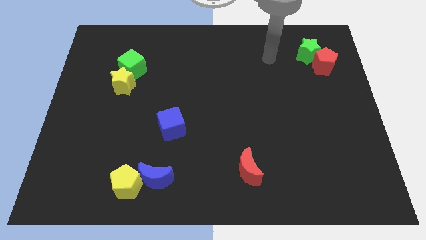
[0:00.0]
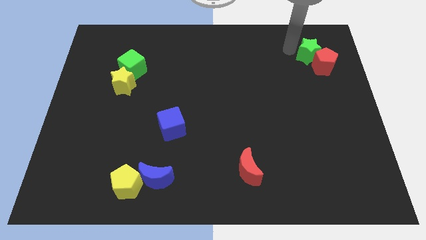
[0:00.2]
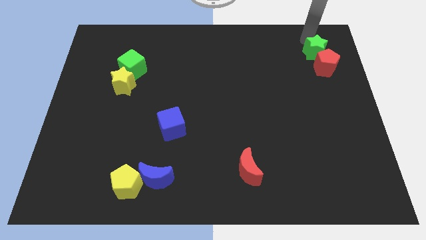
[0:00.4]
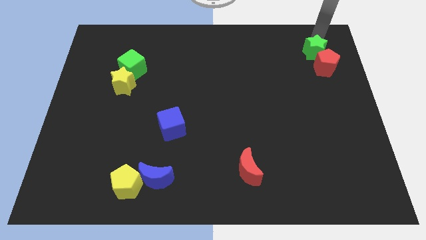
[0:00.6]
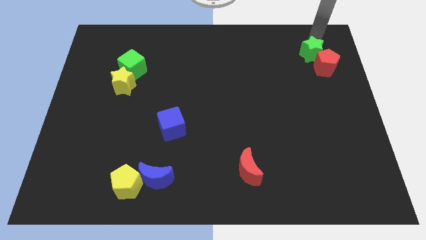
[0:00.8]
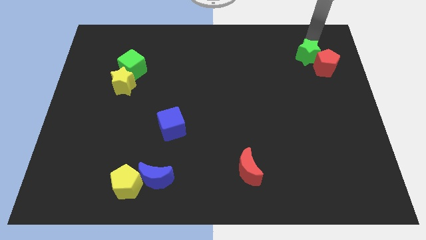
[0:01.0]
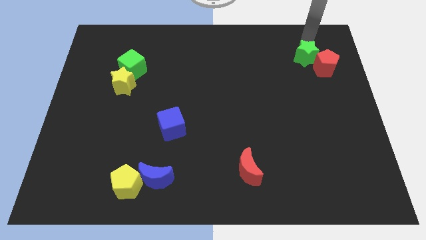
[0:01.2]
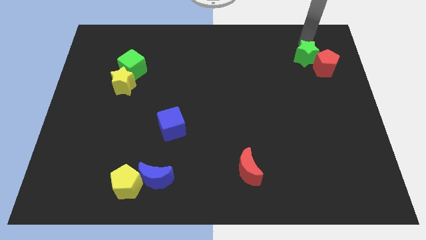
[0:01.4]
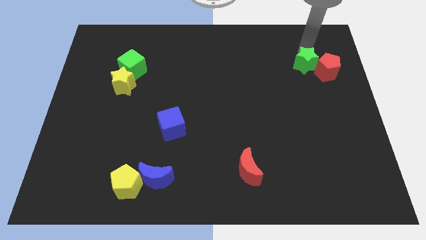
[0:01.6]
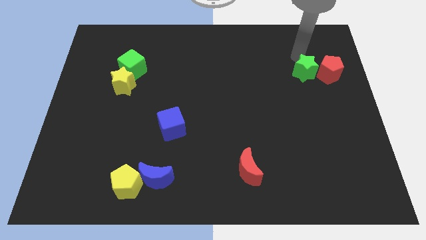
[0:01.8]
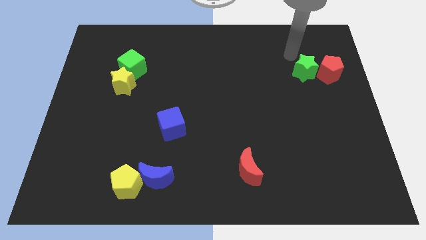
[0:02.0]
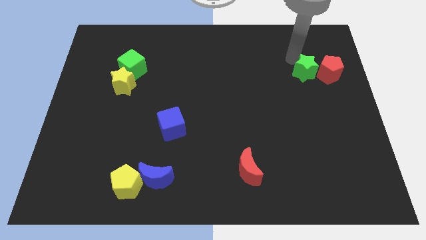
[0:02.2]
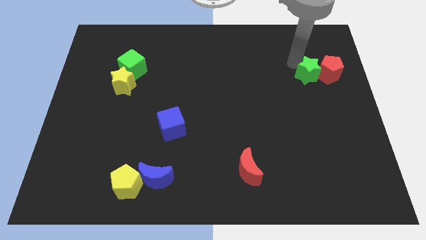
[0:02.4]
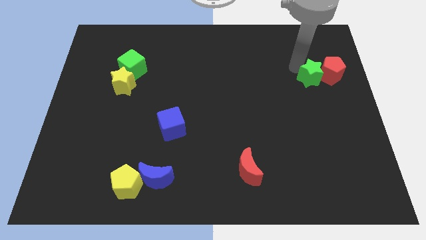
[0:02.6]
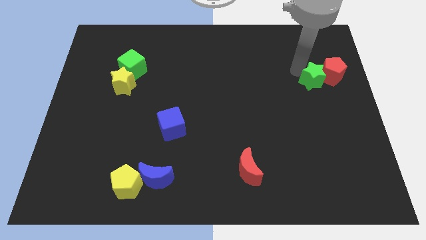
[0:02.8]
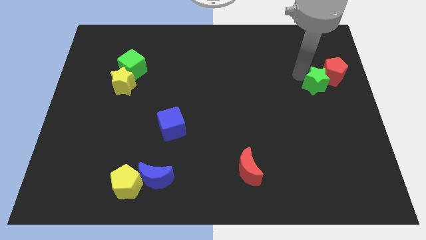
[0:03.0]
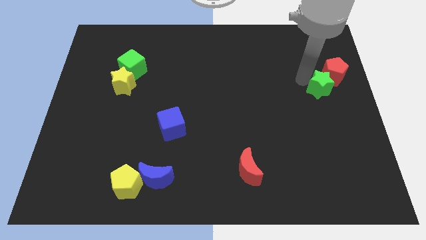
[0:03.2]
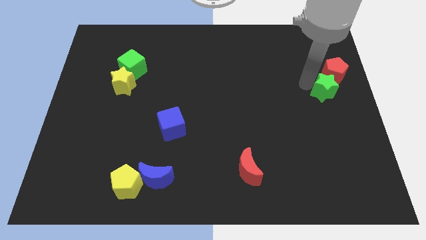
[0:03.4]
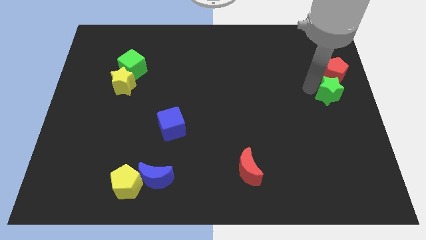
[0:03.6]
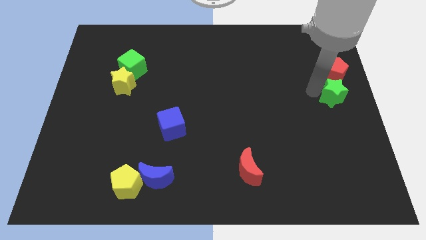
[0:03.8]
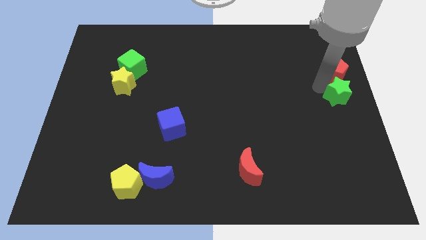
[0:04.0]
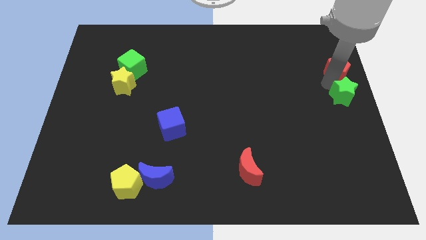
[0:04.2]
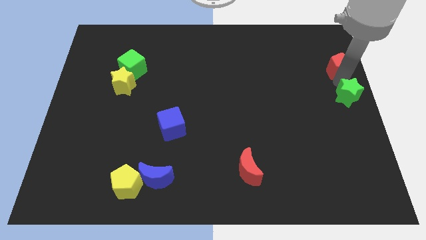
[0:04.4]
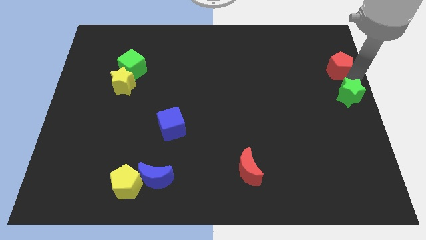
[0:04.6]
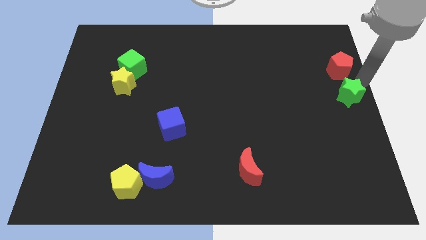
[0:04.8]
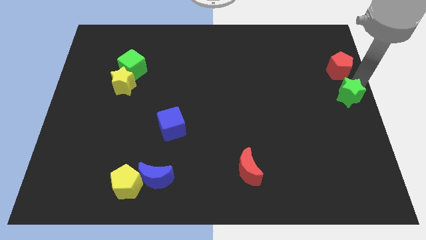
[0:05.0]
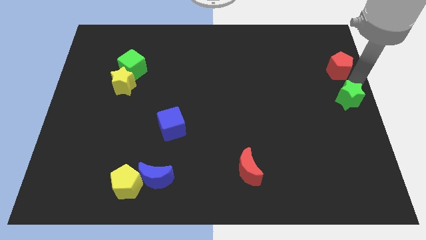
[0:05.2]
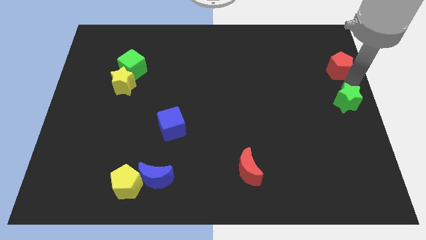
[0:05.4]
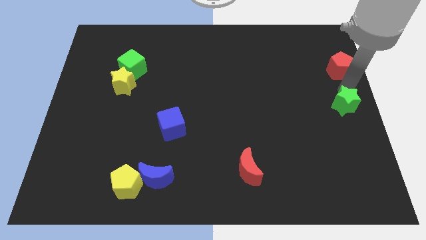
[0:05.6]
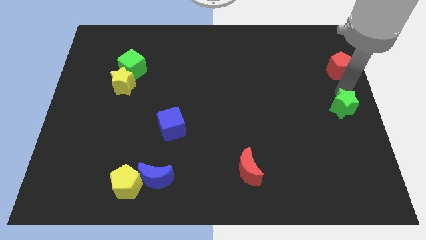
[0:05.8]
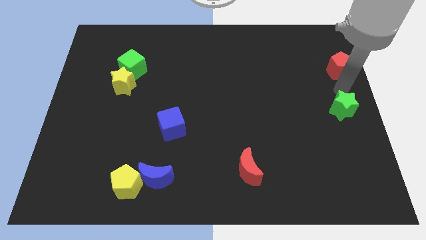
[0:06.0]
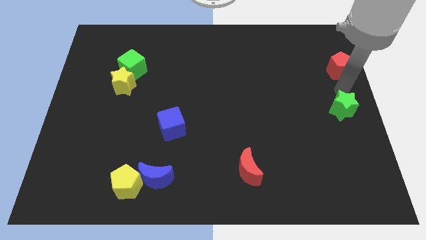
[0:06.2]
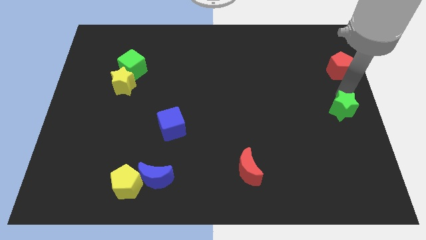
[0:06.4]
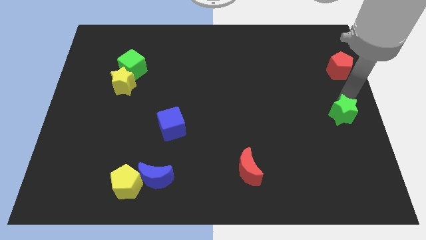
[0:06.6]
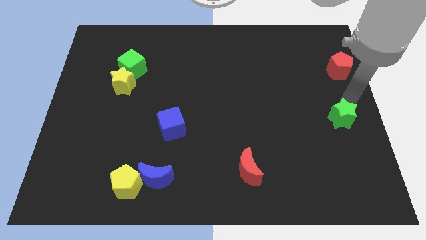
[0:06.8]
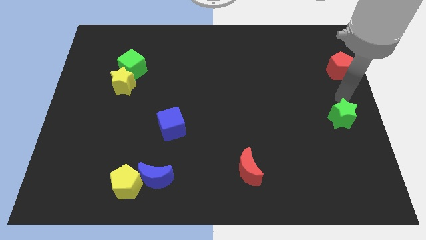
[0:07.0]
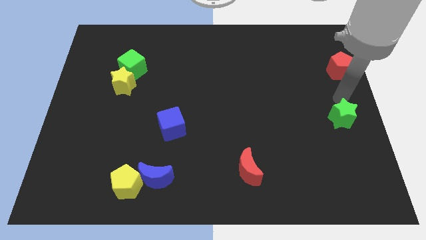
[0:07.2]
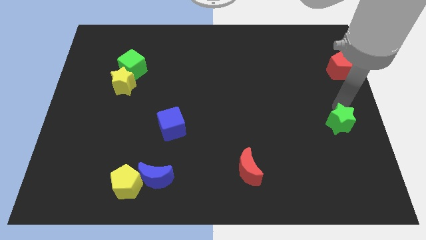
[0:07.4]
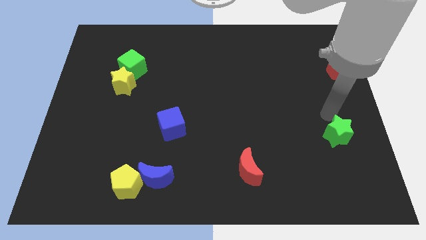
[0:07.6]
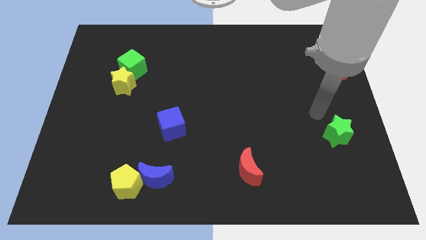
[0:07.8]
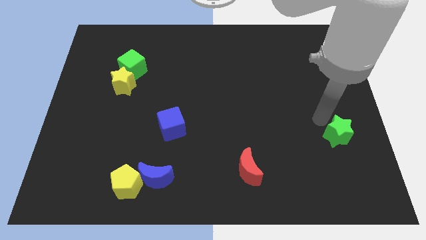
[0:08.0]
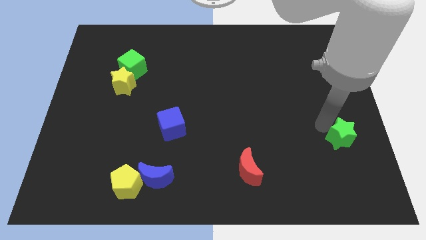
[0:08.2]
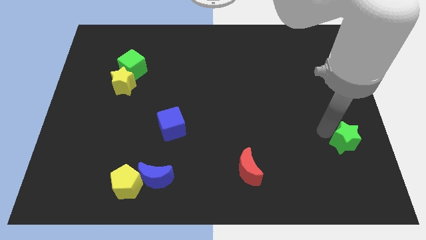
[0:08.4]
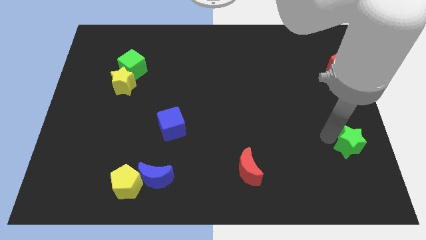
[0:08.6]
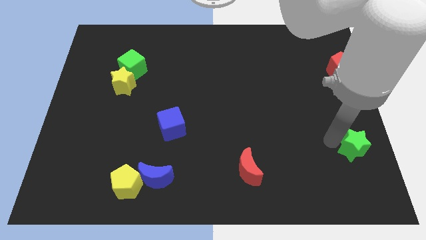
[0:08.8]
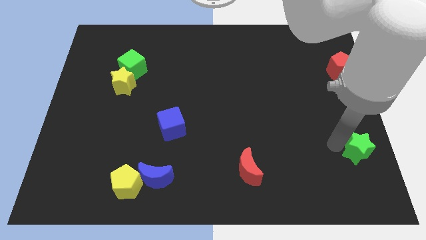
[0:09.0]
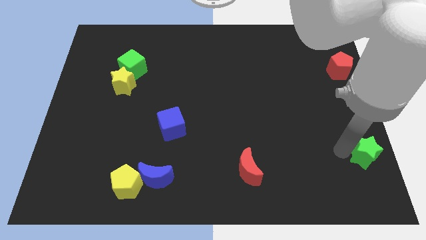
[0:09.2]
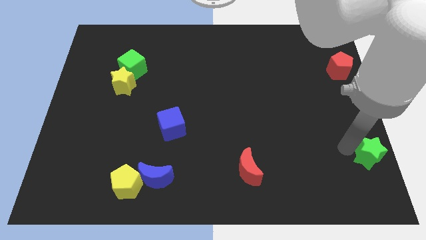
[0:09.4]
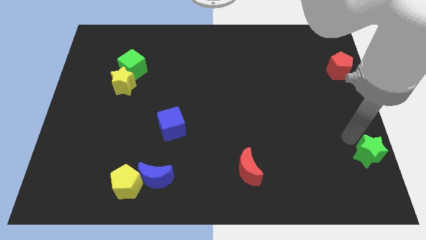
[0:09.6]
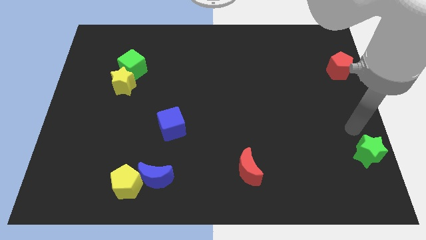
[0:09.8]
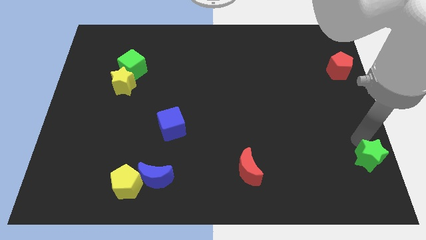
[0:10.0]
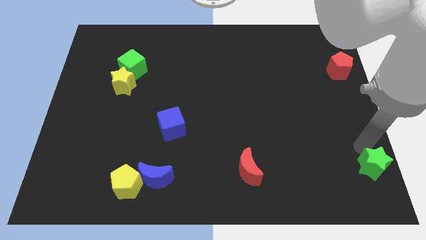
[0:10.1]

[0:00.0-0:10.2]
push the green star to the bottom right

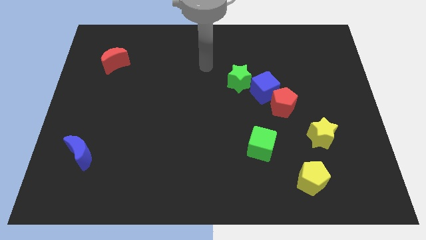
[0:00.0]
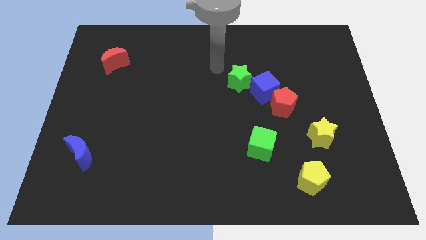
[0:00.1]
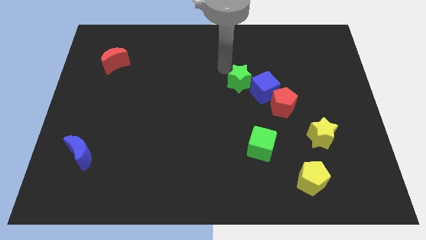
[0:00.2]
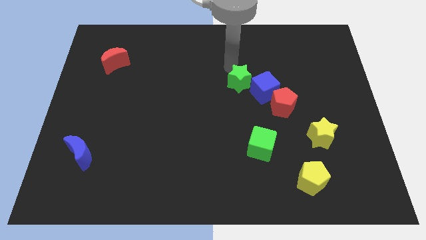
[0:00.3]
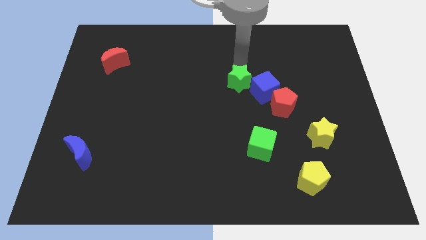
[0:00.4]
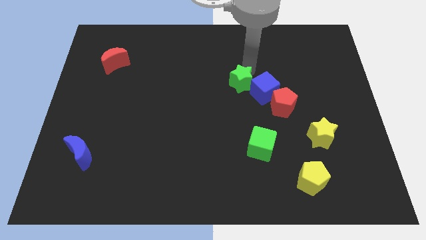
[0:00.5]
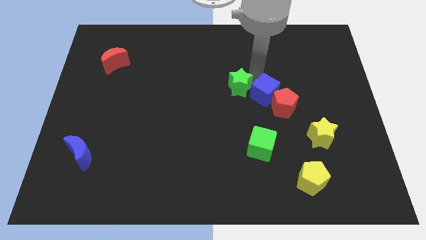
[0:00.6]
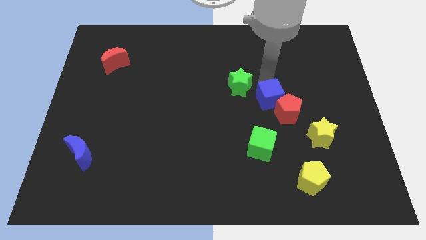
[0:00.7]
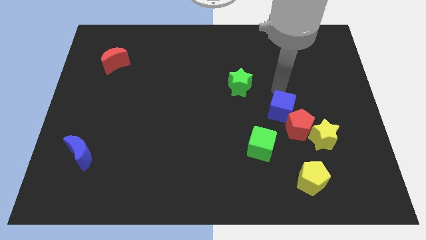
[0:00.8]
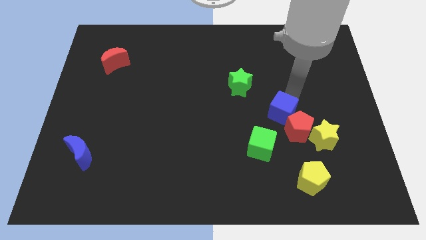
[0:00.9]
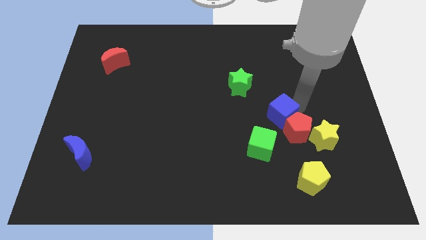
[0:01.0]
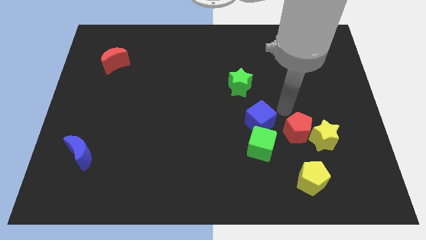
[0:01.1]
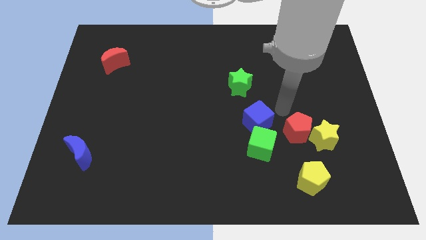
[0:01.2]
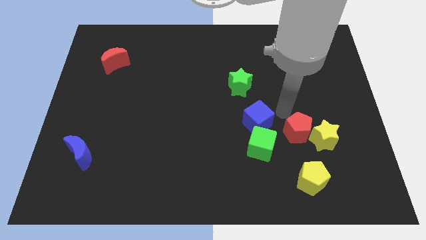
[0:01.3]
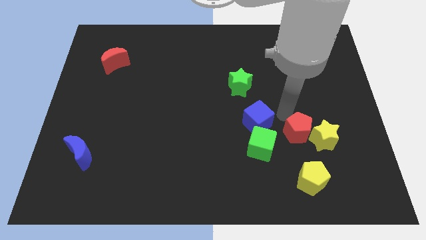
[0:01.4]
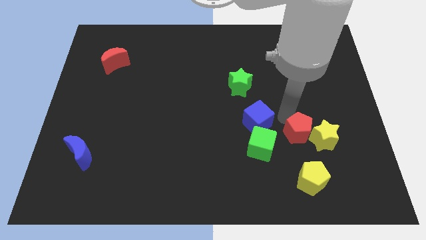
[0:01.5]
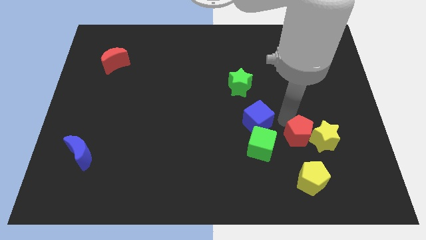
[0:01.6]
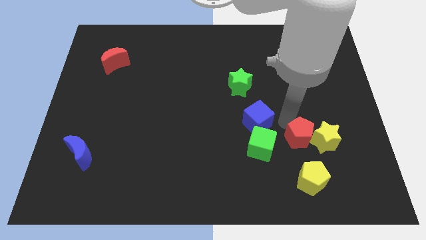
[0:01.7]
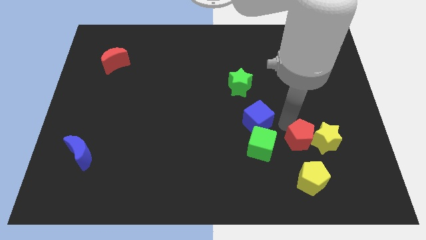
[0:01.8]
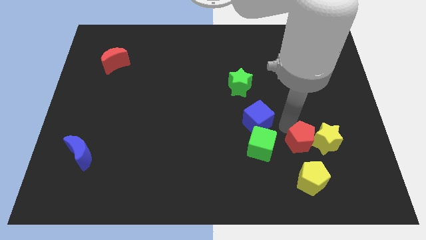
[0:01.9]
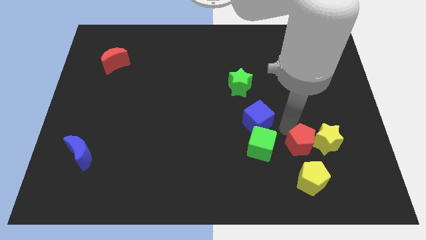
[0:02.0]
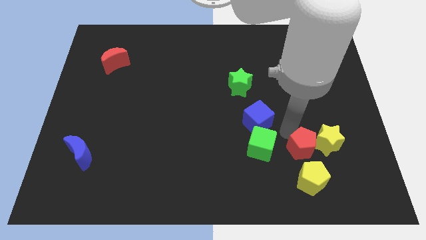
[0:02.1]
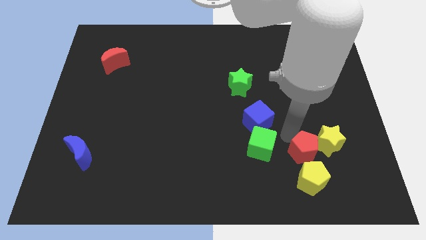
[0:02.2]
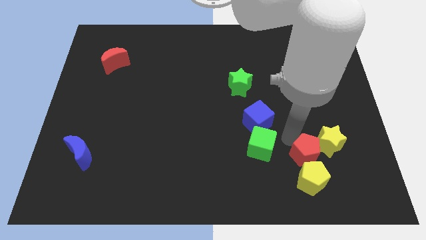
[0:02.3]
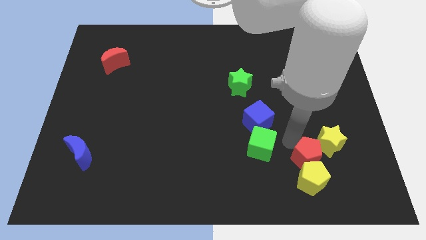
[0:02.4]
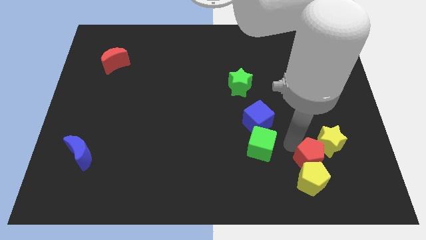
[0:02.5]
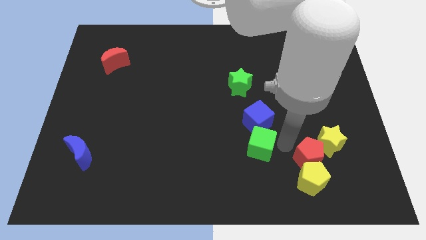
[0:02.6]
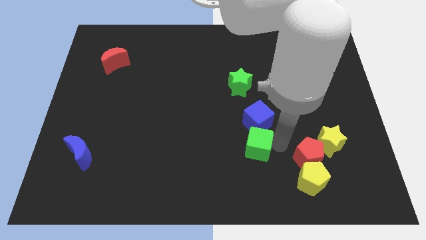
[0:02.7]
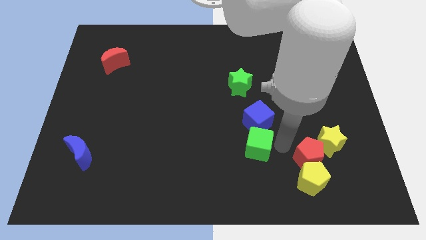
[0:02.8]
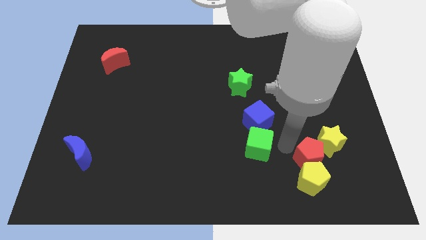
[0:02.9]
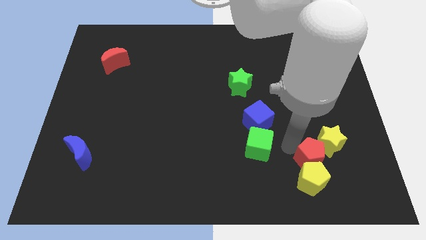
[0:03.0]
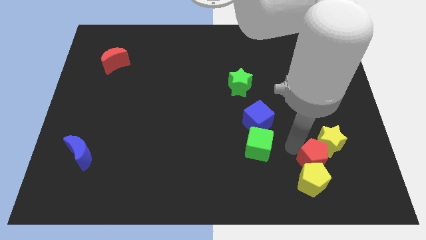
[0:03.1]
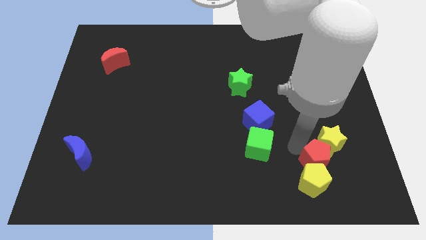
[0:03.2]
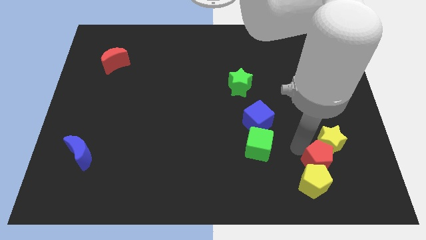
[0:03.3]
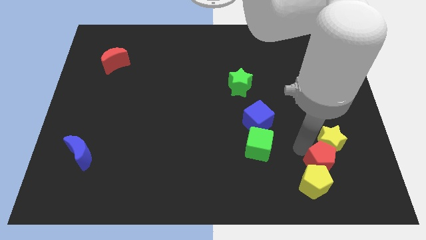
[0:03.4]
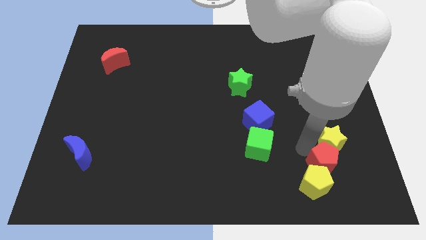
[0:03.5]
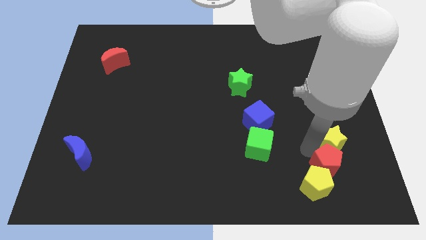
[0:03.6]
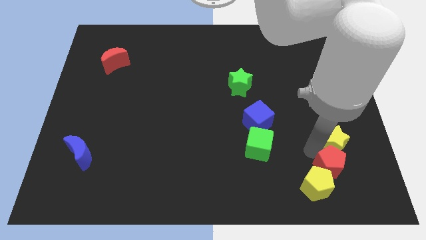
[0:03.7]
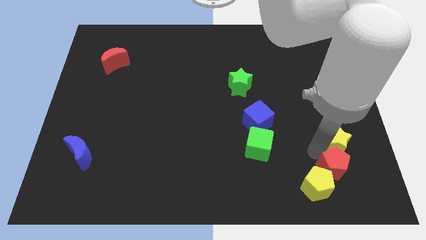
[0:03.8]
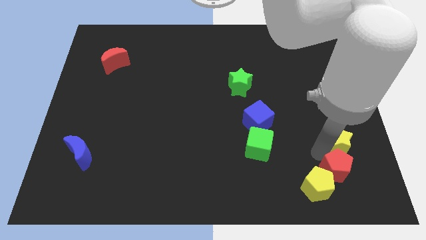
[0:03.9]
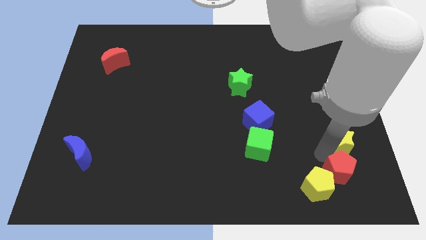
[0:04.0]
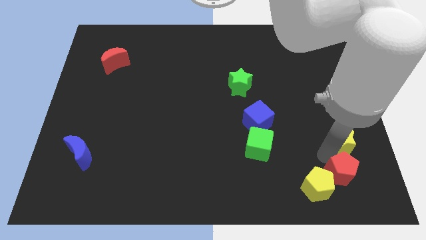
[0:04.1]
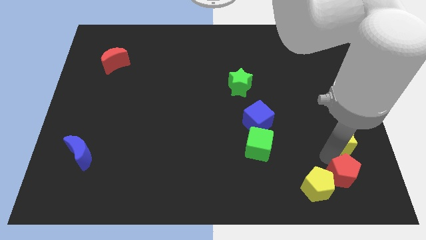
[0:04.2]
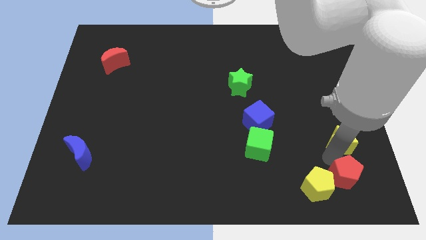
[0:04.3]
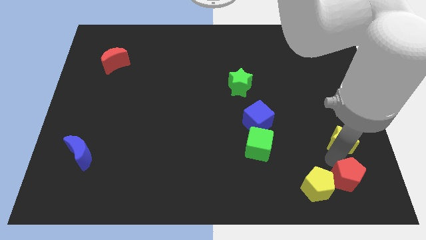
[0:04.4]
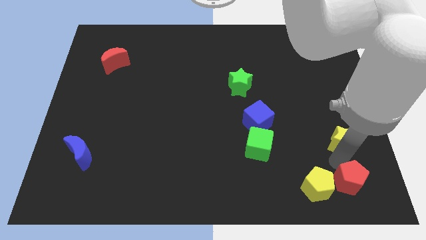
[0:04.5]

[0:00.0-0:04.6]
push the red pentagon to the bottom right corner
